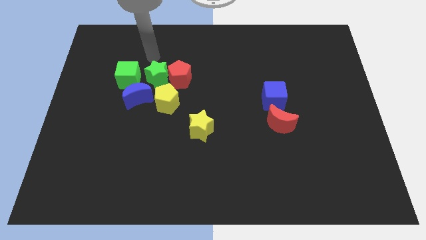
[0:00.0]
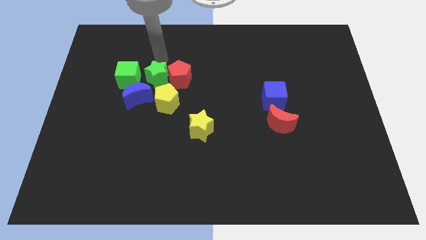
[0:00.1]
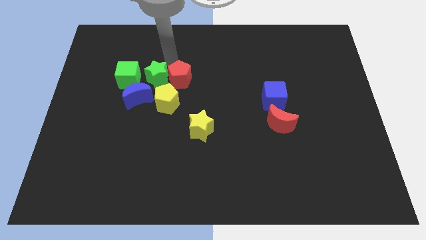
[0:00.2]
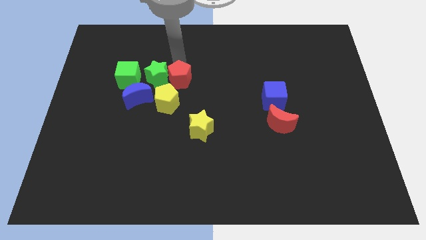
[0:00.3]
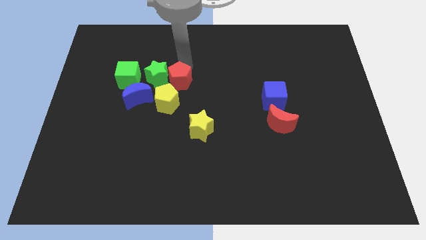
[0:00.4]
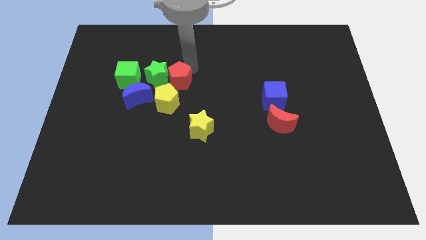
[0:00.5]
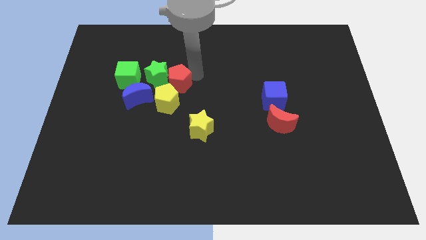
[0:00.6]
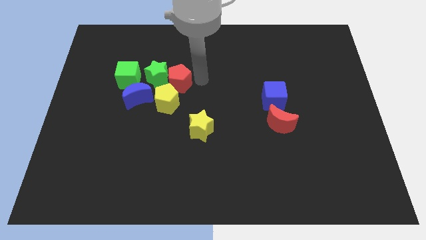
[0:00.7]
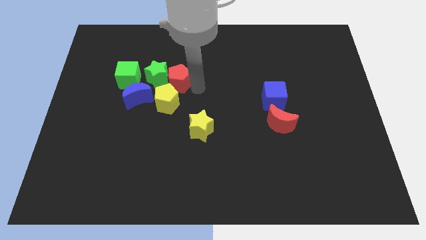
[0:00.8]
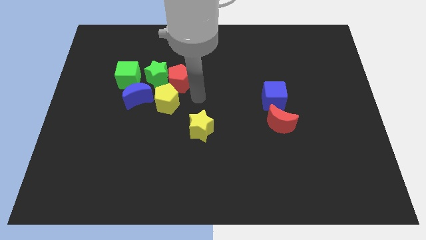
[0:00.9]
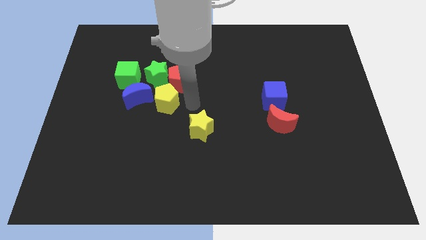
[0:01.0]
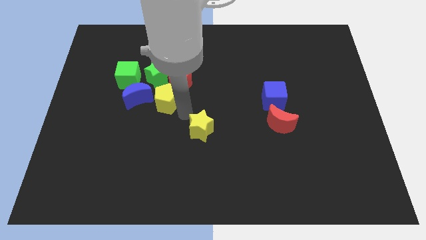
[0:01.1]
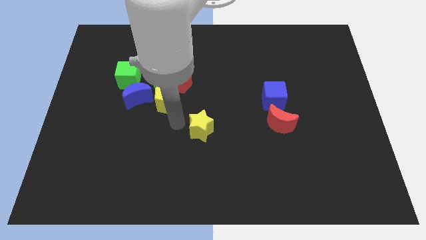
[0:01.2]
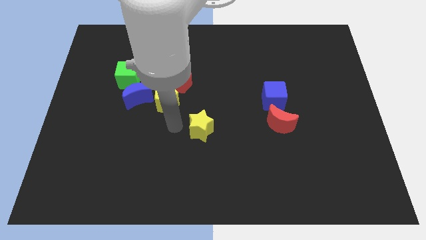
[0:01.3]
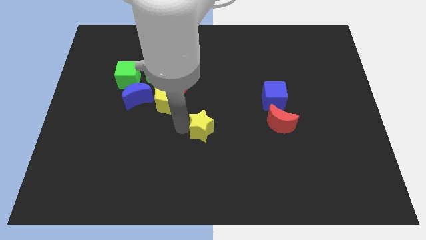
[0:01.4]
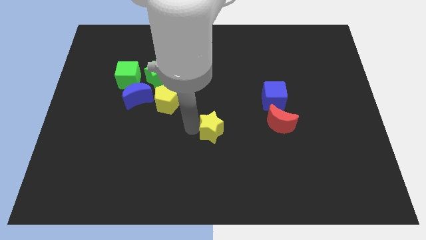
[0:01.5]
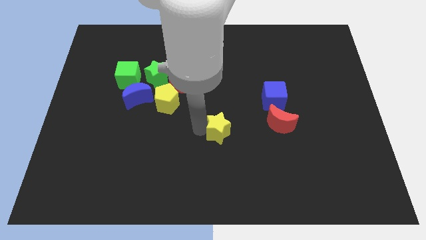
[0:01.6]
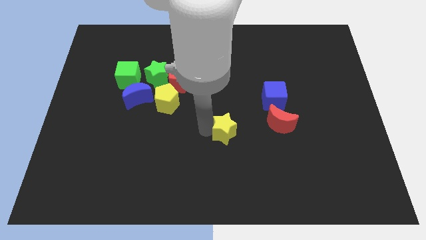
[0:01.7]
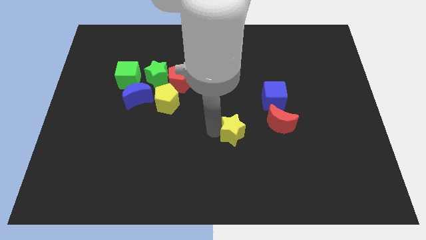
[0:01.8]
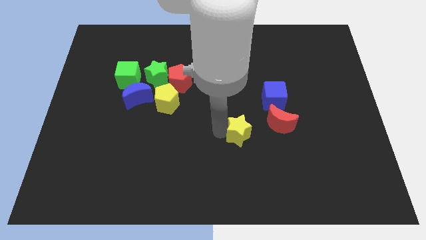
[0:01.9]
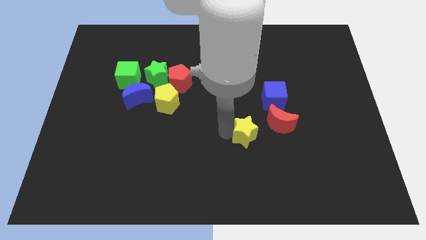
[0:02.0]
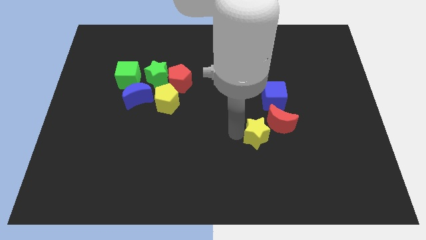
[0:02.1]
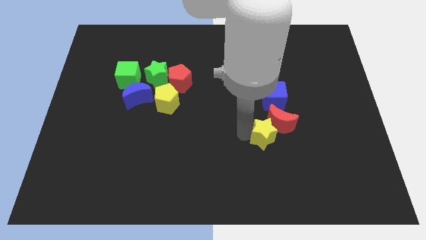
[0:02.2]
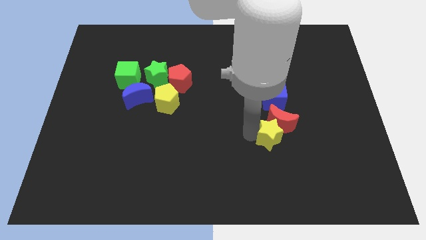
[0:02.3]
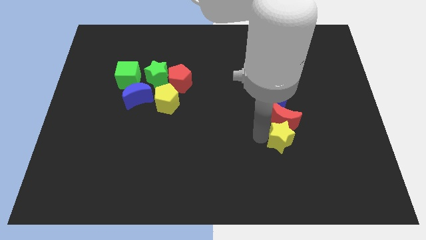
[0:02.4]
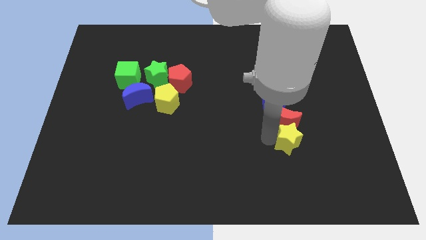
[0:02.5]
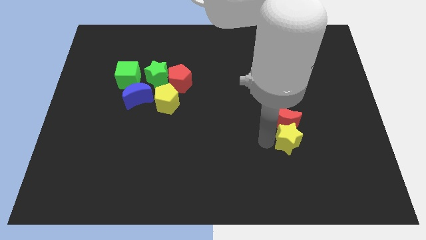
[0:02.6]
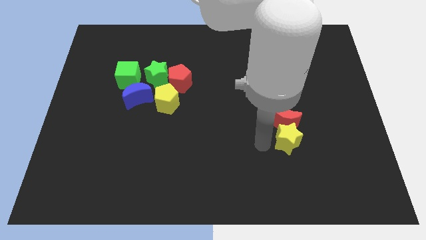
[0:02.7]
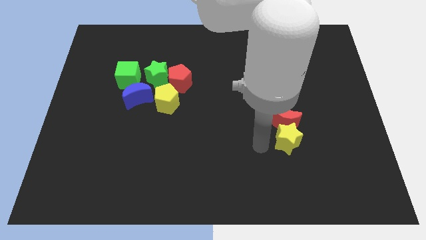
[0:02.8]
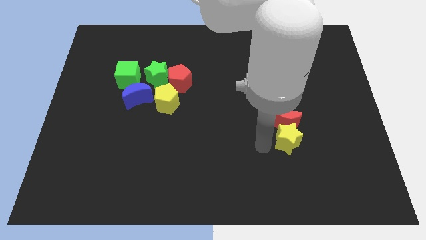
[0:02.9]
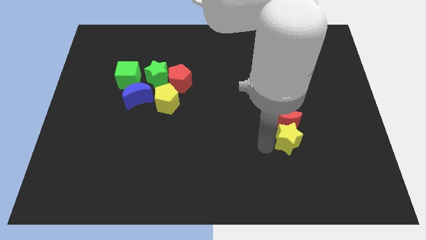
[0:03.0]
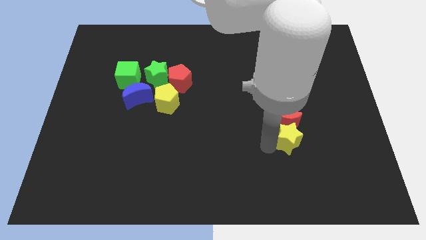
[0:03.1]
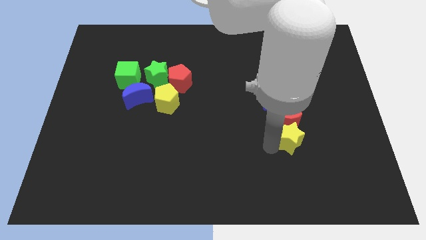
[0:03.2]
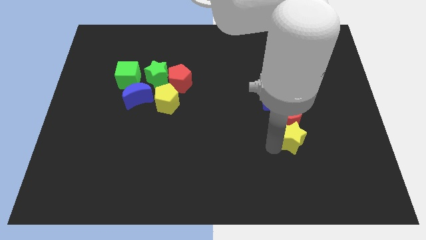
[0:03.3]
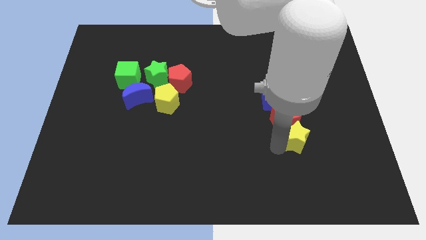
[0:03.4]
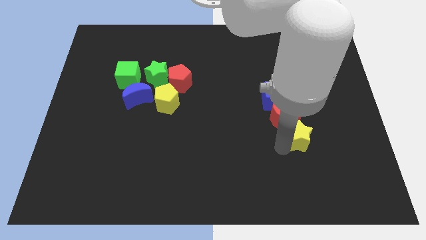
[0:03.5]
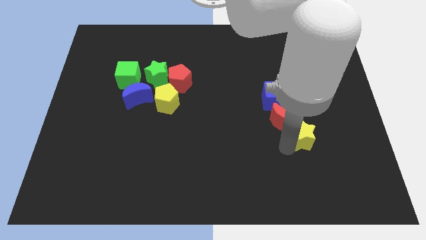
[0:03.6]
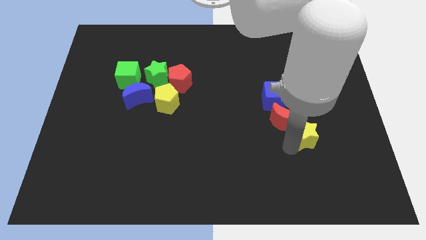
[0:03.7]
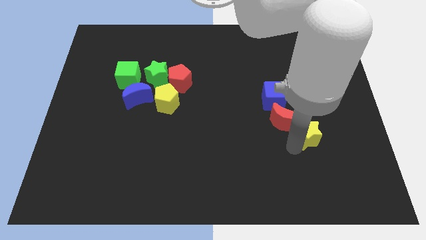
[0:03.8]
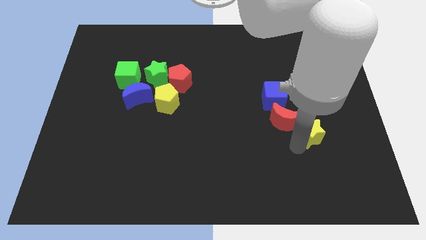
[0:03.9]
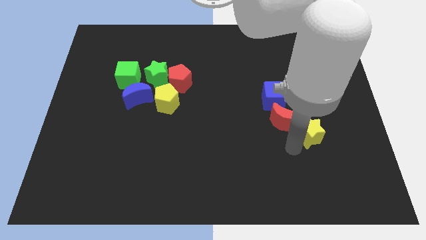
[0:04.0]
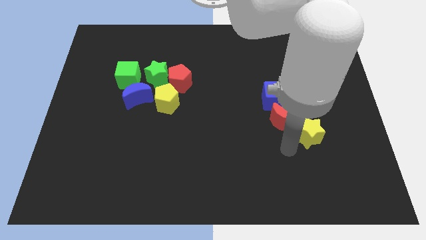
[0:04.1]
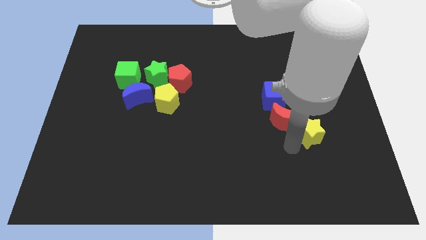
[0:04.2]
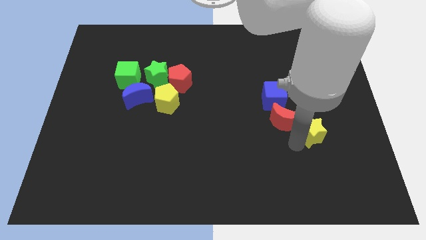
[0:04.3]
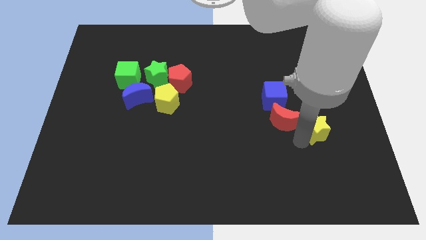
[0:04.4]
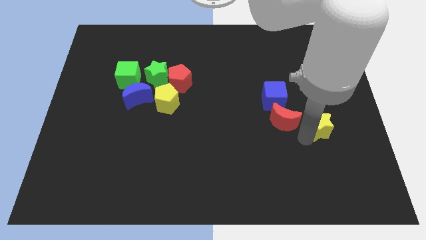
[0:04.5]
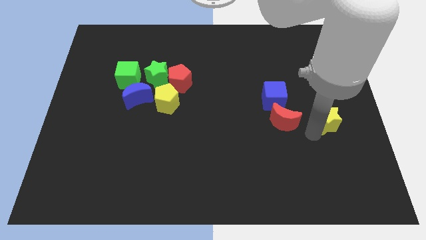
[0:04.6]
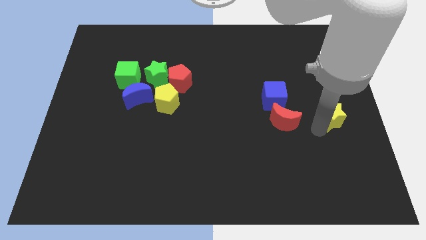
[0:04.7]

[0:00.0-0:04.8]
move the yellow star to the right side

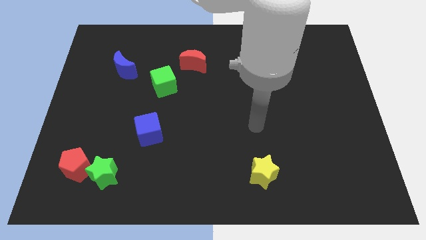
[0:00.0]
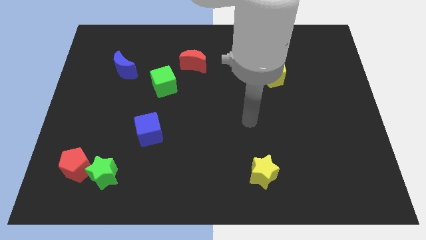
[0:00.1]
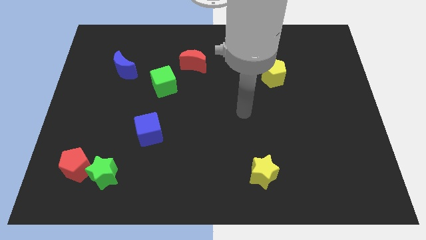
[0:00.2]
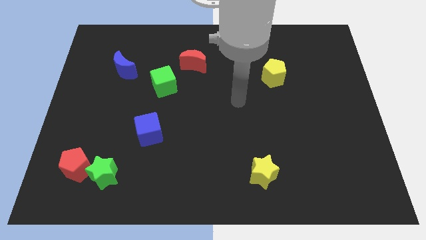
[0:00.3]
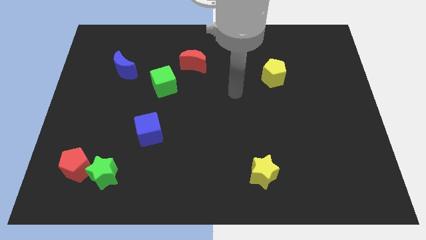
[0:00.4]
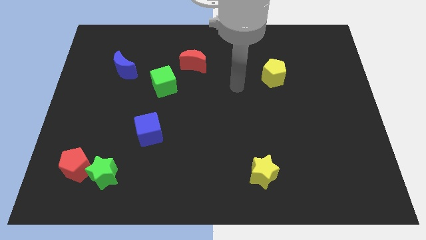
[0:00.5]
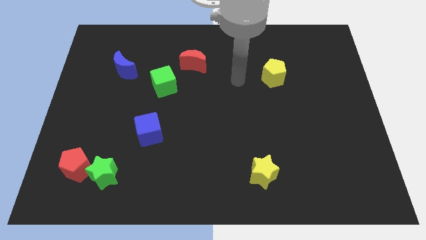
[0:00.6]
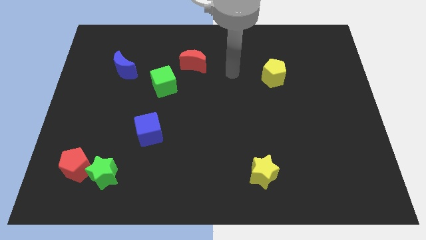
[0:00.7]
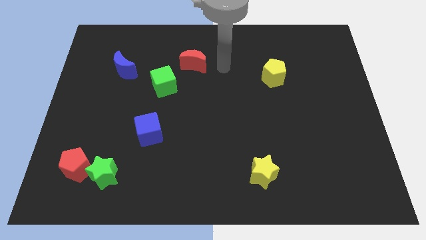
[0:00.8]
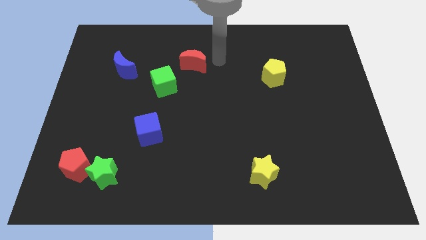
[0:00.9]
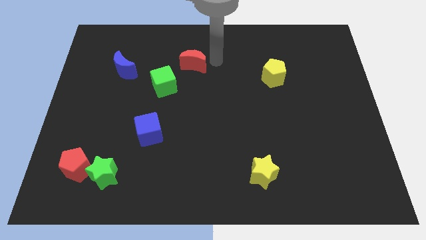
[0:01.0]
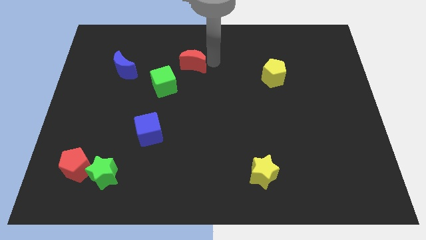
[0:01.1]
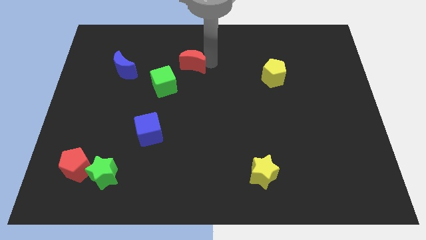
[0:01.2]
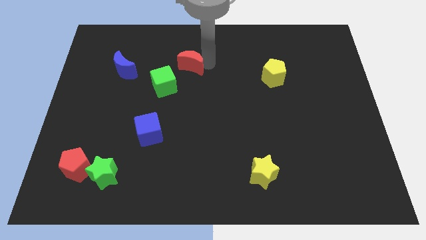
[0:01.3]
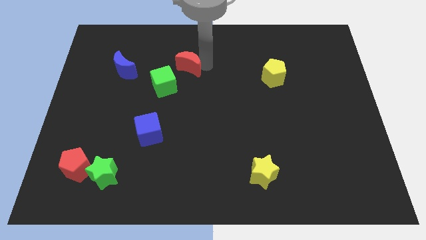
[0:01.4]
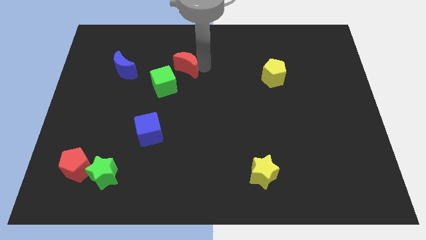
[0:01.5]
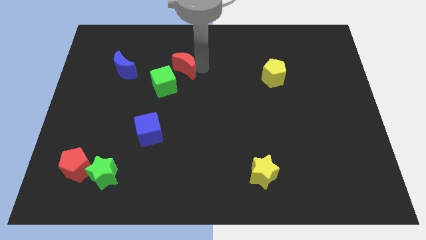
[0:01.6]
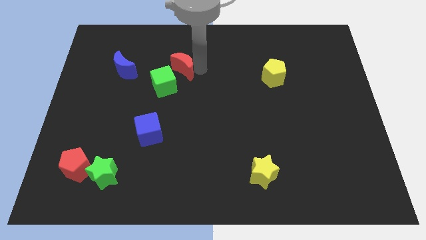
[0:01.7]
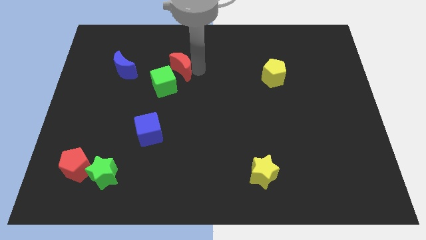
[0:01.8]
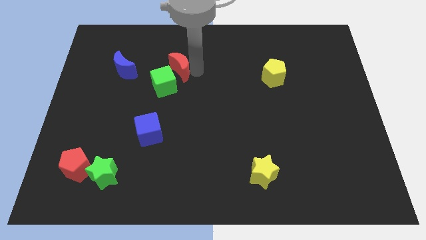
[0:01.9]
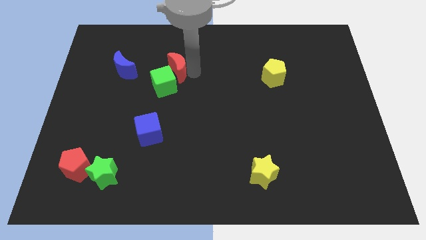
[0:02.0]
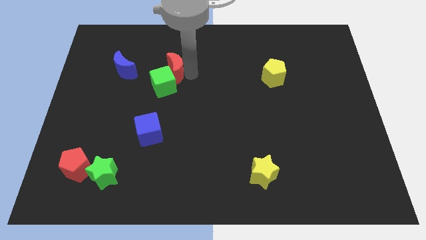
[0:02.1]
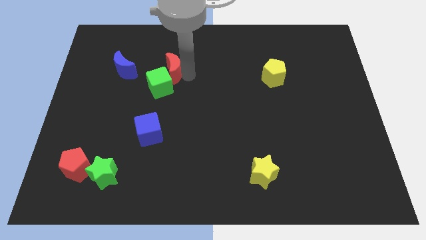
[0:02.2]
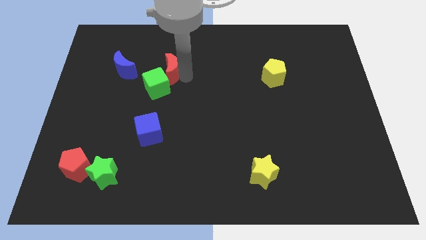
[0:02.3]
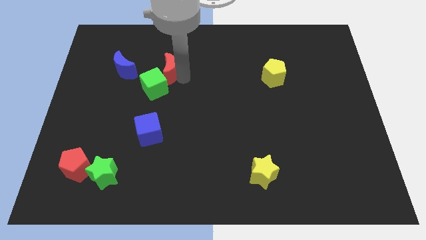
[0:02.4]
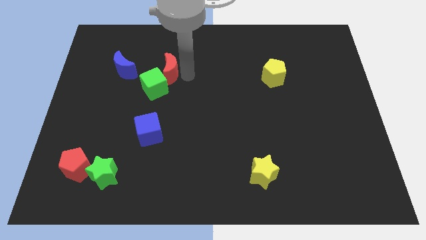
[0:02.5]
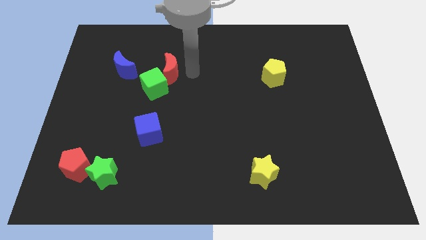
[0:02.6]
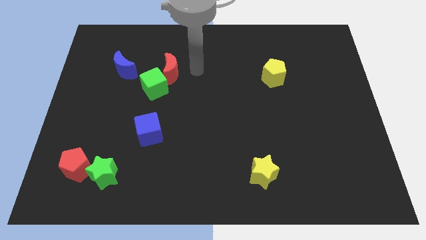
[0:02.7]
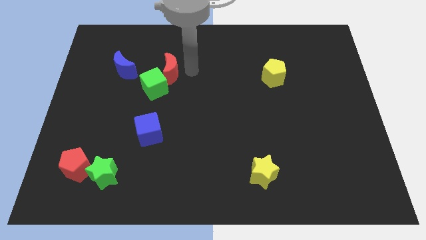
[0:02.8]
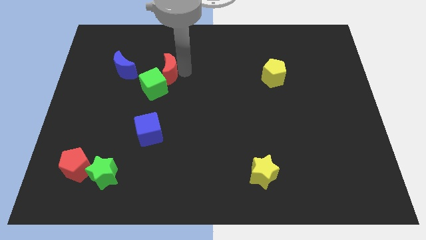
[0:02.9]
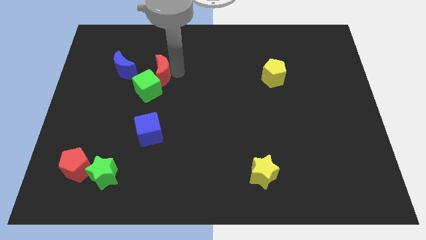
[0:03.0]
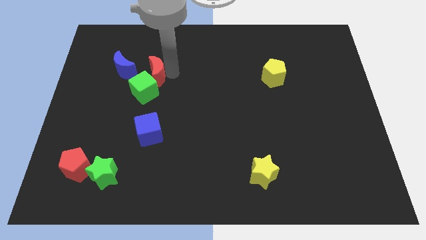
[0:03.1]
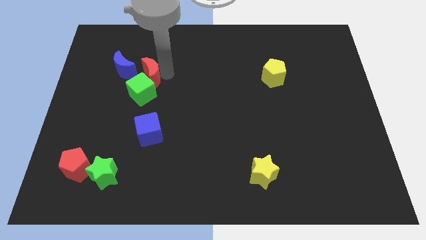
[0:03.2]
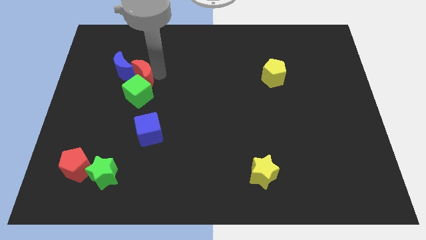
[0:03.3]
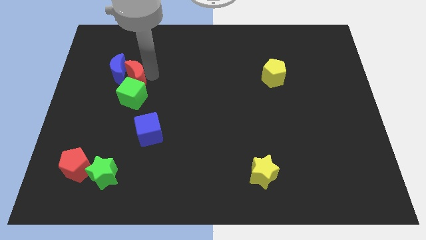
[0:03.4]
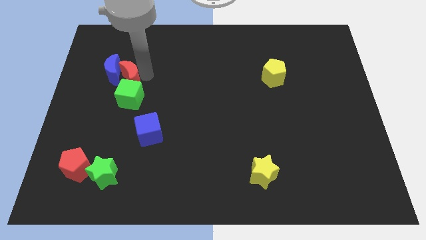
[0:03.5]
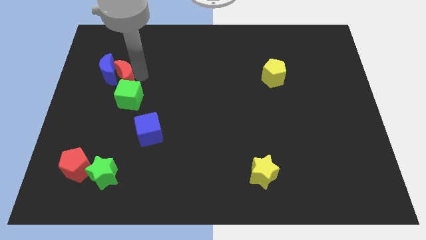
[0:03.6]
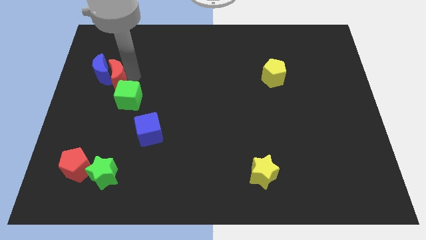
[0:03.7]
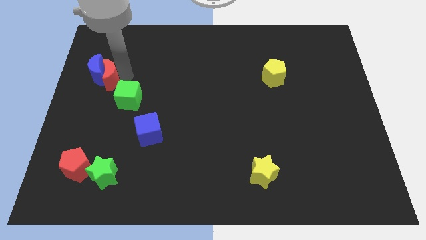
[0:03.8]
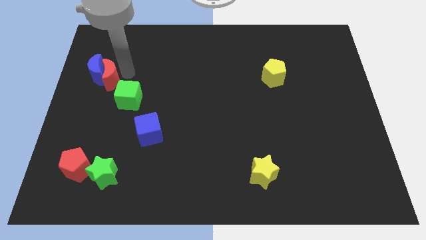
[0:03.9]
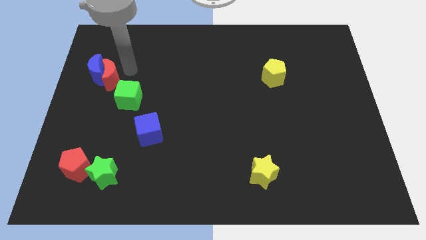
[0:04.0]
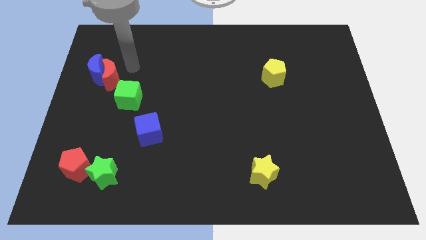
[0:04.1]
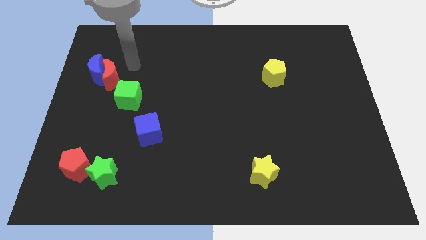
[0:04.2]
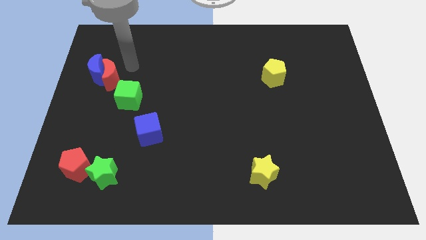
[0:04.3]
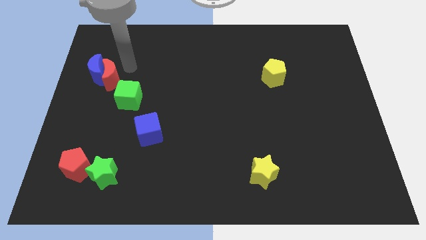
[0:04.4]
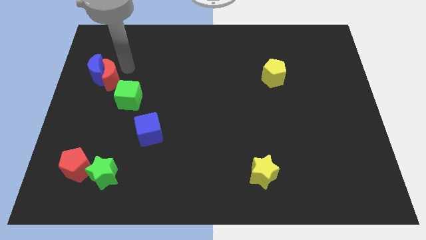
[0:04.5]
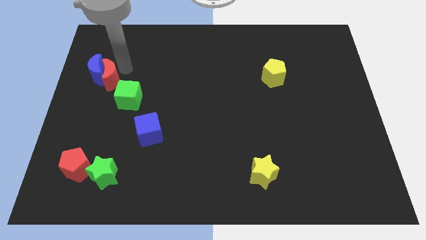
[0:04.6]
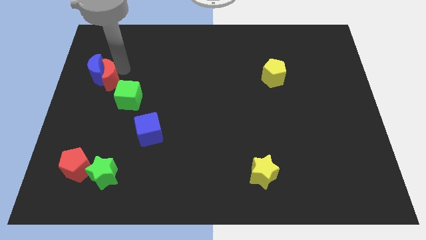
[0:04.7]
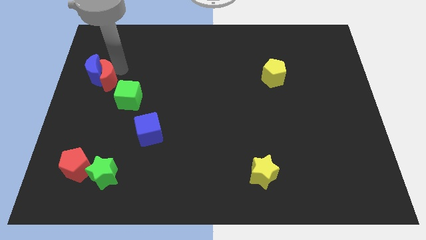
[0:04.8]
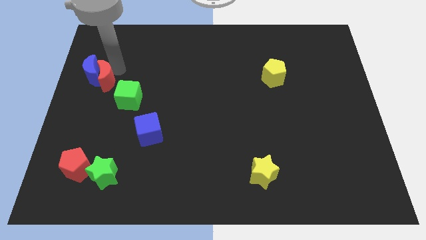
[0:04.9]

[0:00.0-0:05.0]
move the red moon to the left side
